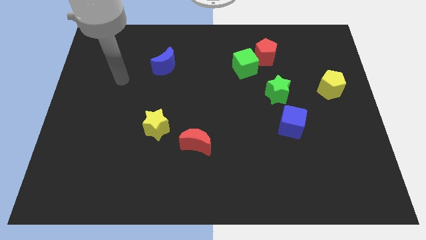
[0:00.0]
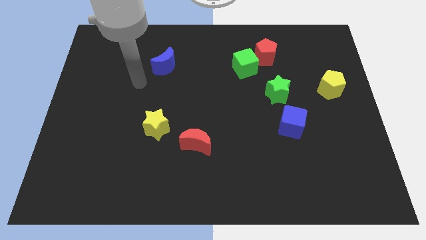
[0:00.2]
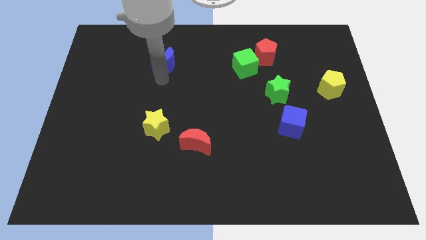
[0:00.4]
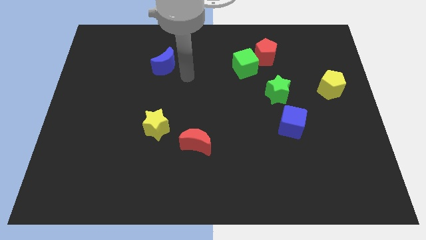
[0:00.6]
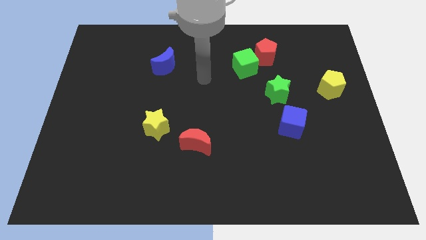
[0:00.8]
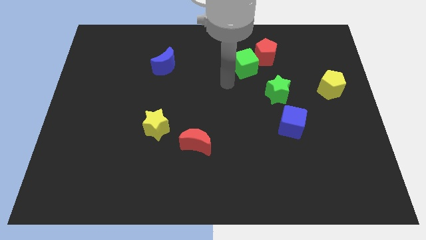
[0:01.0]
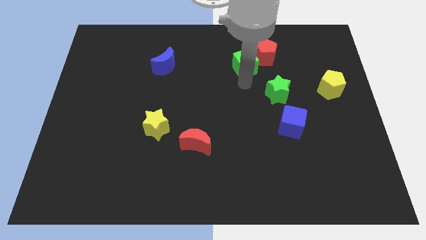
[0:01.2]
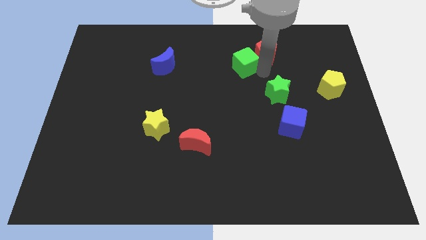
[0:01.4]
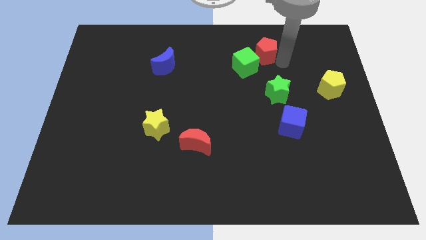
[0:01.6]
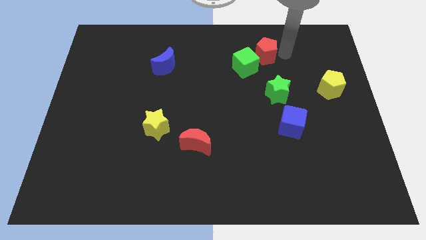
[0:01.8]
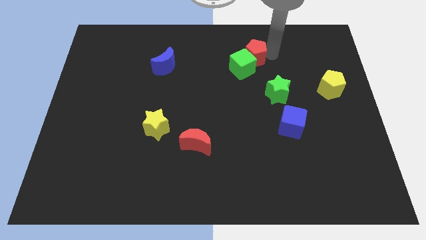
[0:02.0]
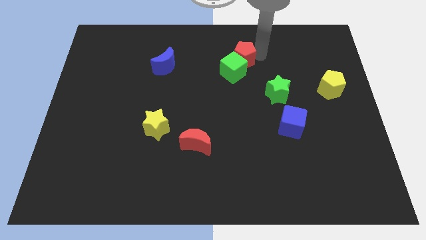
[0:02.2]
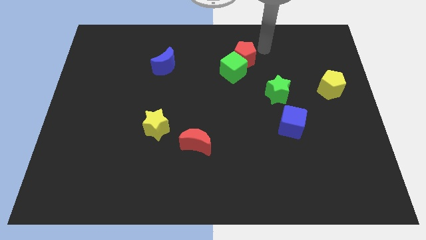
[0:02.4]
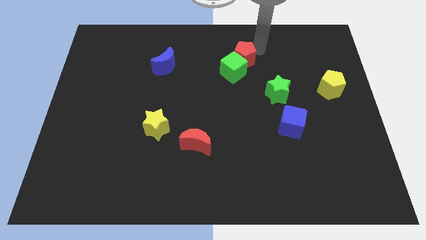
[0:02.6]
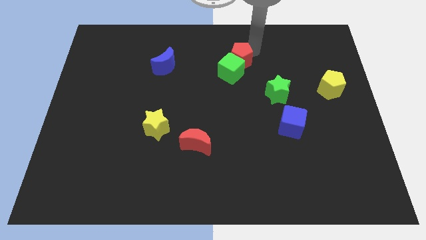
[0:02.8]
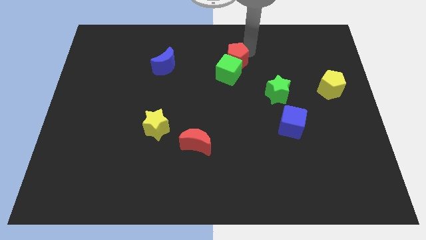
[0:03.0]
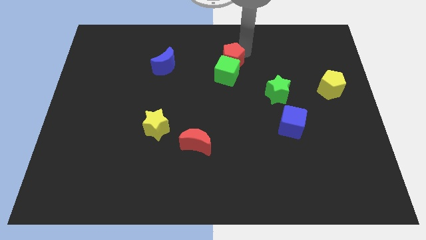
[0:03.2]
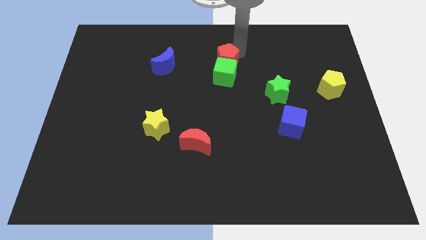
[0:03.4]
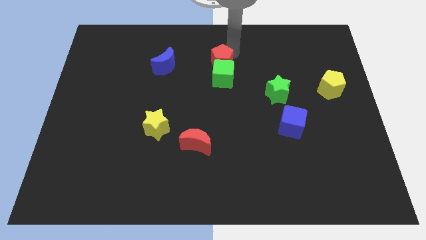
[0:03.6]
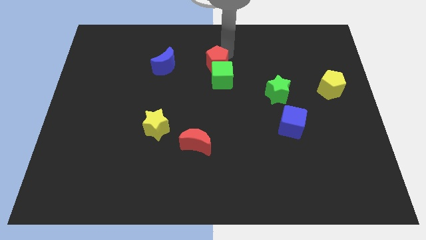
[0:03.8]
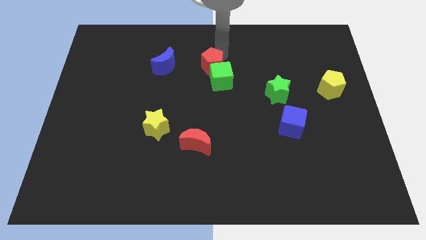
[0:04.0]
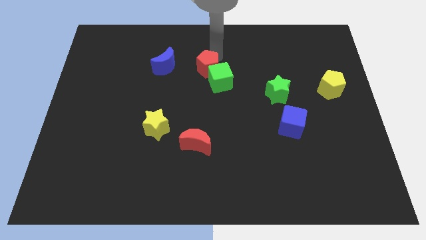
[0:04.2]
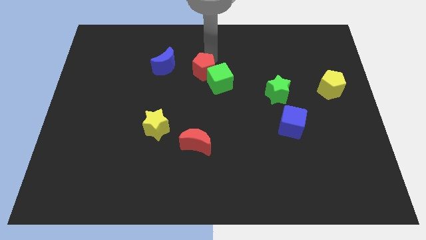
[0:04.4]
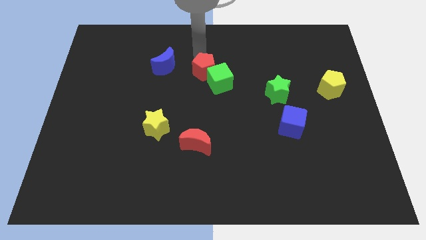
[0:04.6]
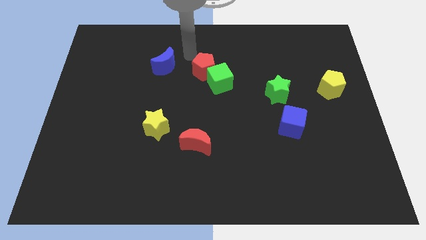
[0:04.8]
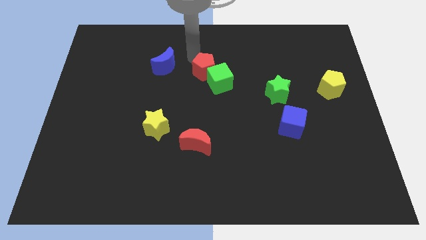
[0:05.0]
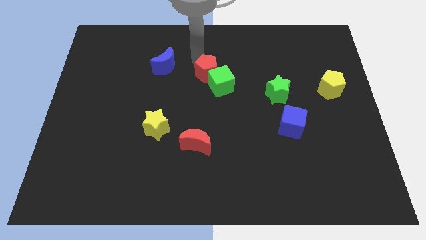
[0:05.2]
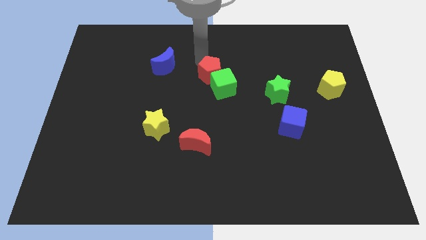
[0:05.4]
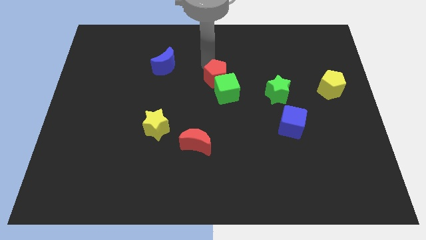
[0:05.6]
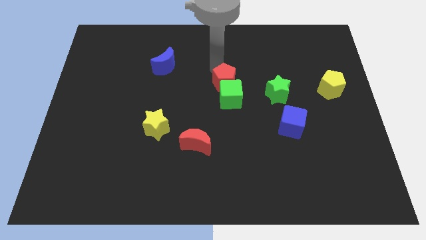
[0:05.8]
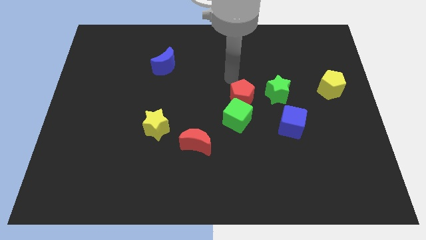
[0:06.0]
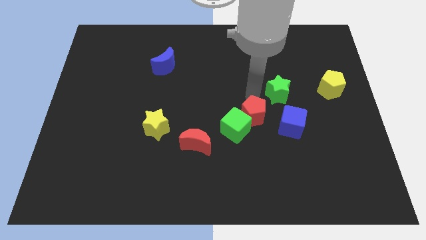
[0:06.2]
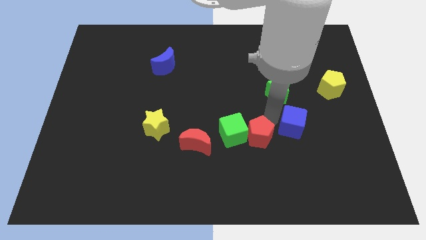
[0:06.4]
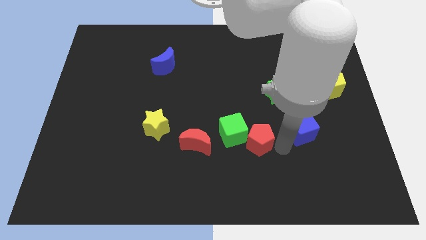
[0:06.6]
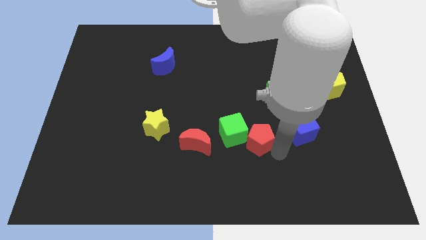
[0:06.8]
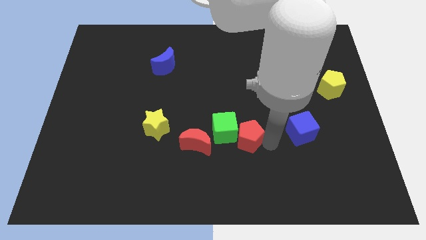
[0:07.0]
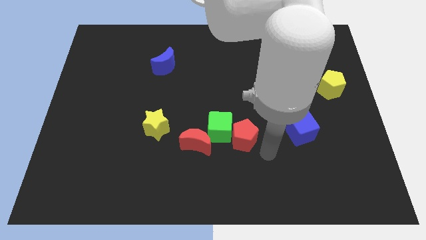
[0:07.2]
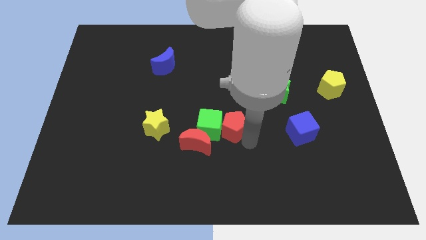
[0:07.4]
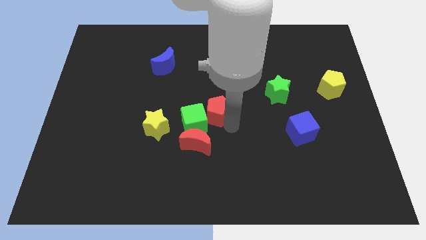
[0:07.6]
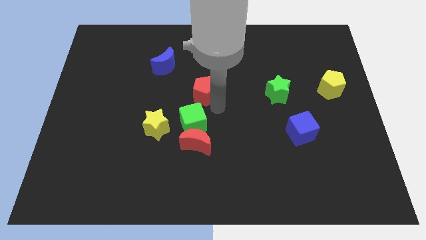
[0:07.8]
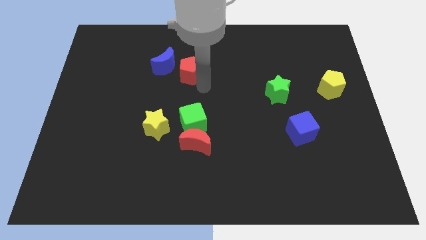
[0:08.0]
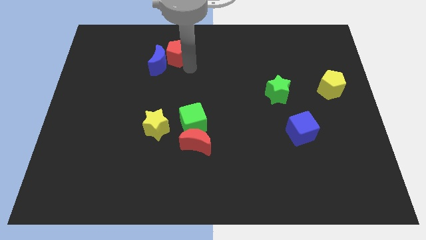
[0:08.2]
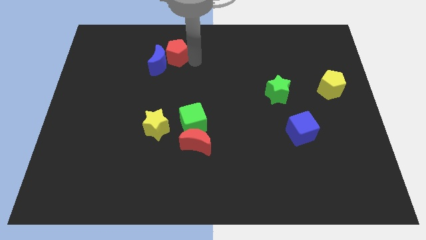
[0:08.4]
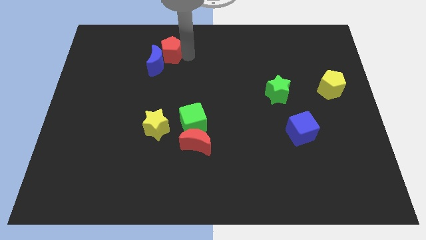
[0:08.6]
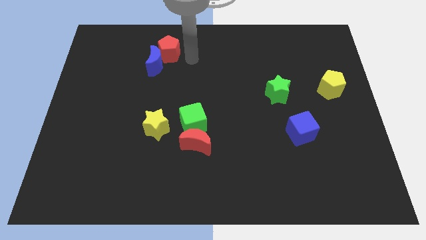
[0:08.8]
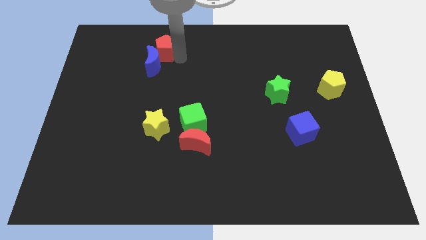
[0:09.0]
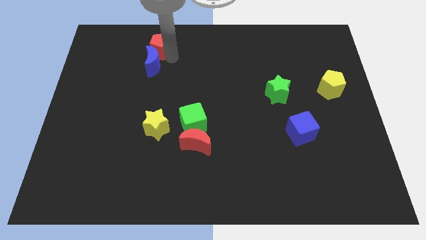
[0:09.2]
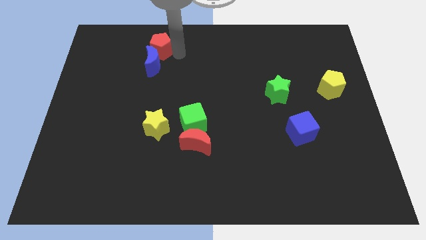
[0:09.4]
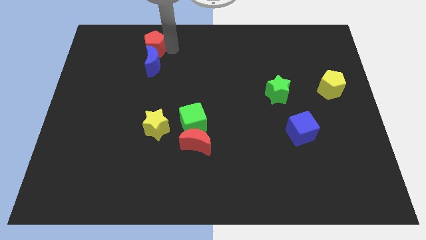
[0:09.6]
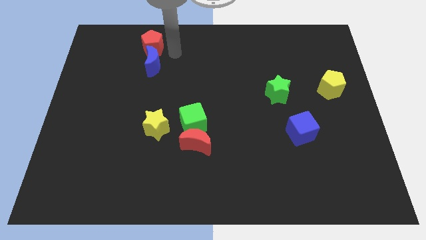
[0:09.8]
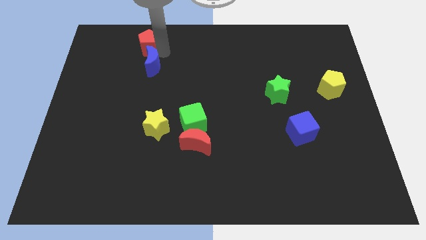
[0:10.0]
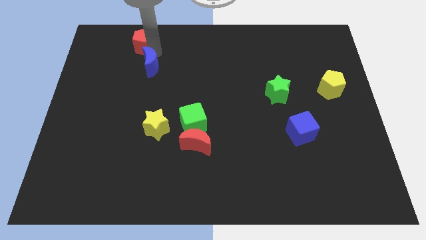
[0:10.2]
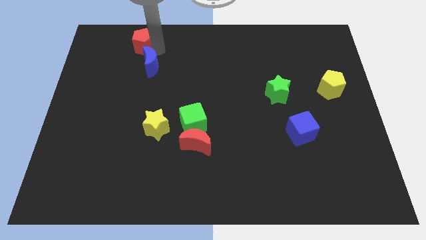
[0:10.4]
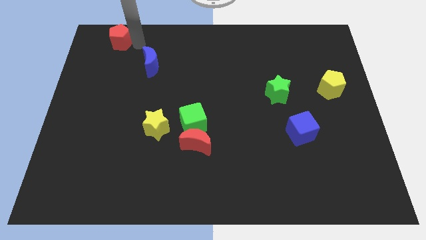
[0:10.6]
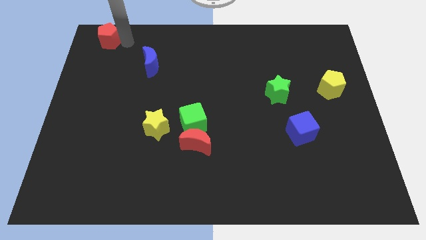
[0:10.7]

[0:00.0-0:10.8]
slide the red pentagon to the top left

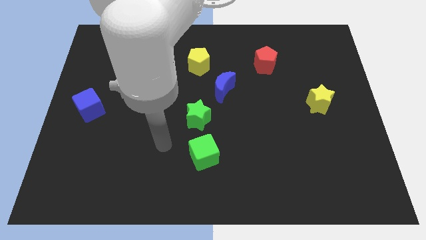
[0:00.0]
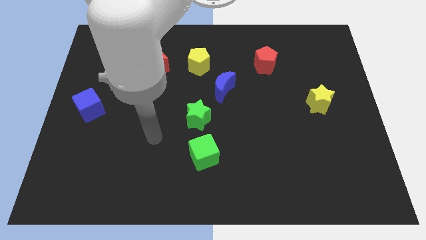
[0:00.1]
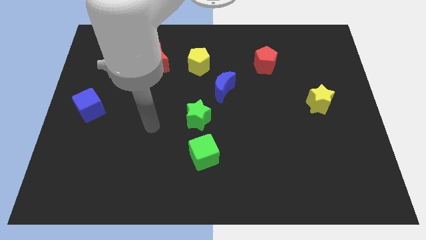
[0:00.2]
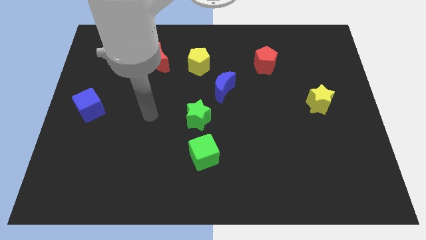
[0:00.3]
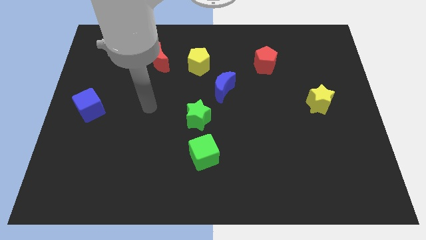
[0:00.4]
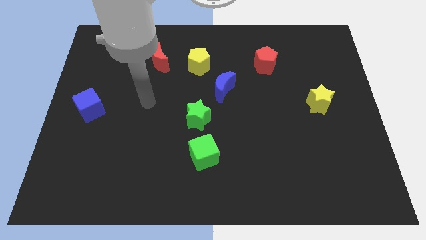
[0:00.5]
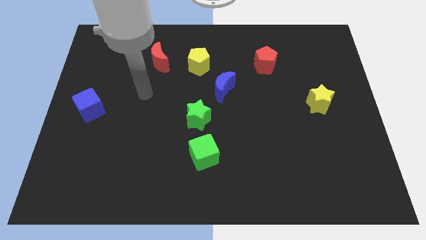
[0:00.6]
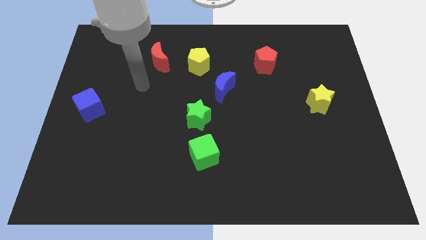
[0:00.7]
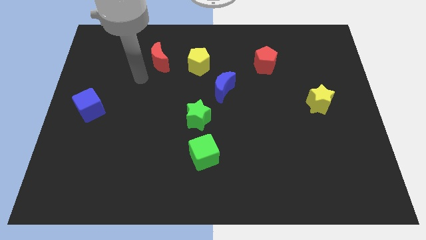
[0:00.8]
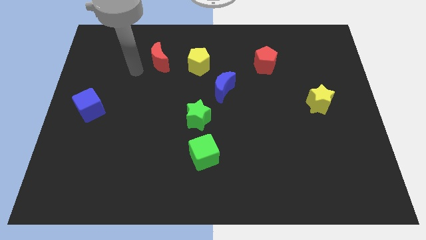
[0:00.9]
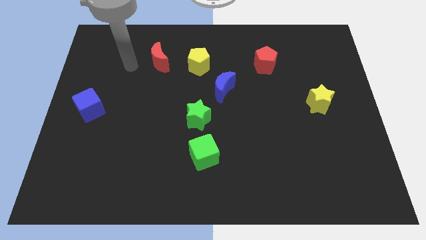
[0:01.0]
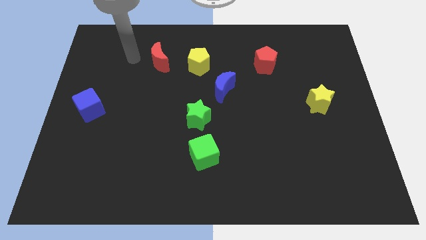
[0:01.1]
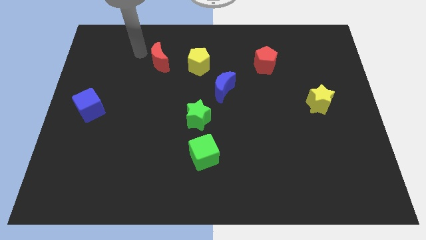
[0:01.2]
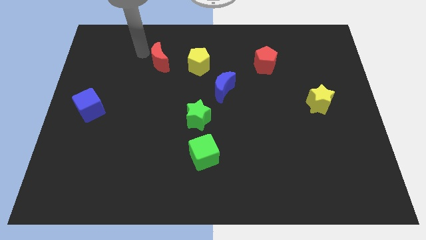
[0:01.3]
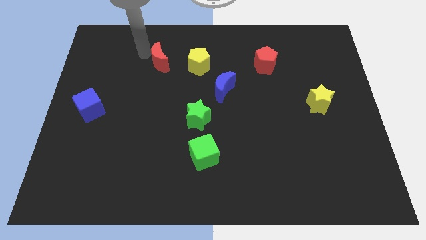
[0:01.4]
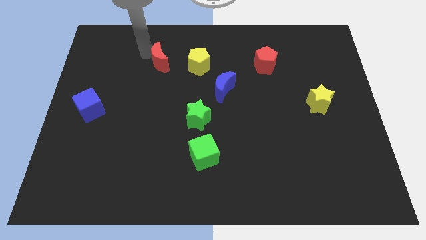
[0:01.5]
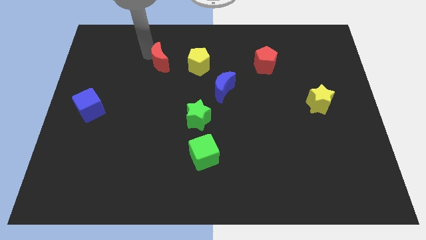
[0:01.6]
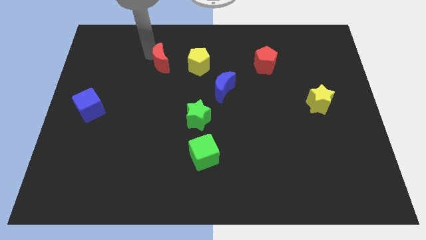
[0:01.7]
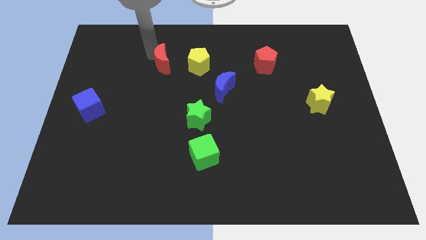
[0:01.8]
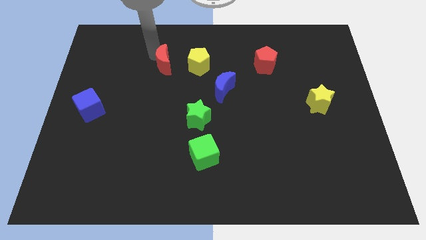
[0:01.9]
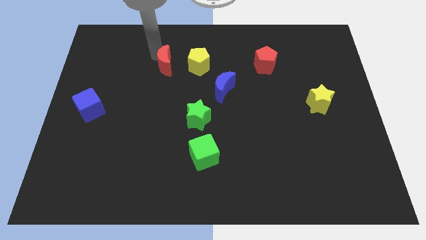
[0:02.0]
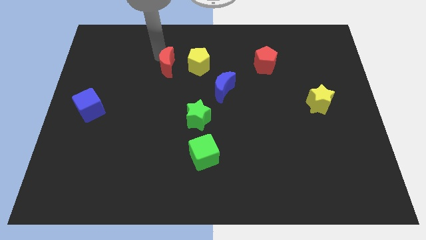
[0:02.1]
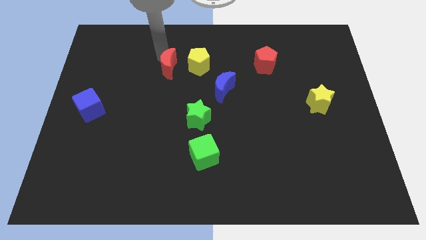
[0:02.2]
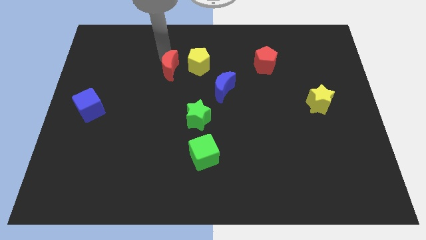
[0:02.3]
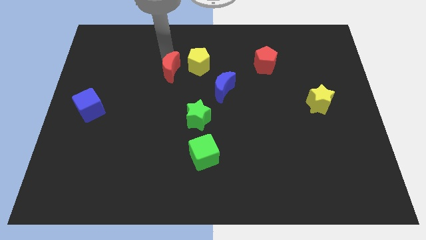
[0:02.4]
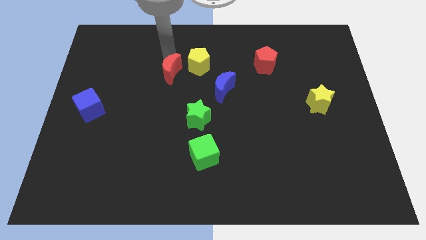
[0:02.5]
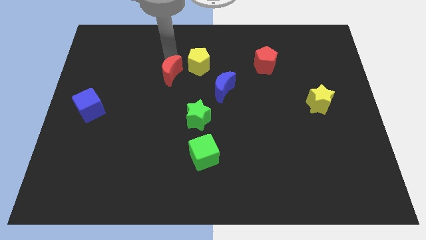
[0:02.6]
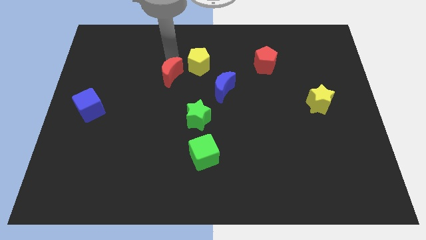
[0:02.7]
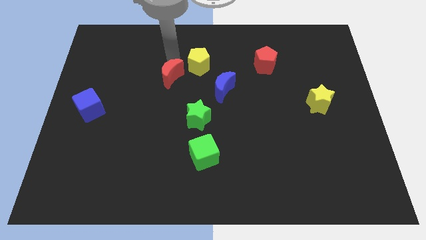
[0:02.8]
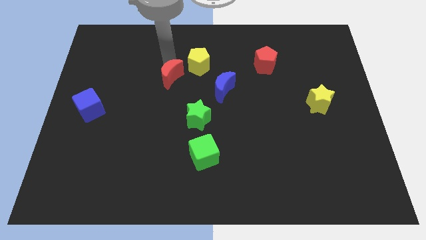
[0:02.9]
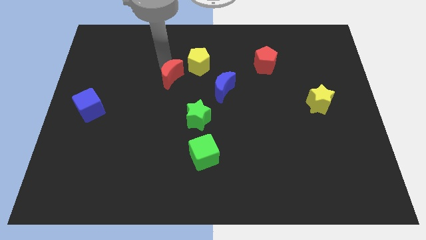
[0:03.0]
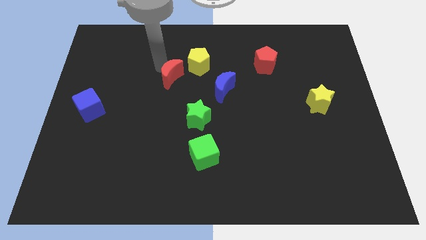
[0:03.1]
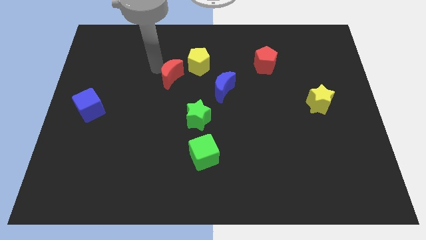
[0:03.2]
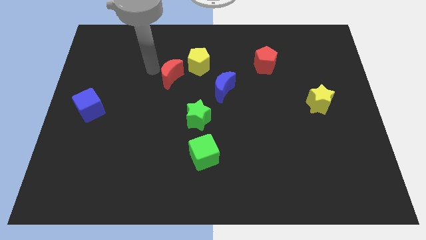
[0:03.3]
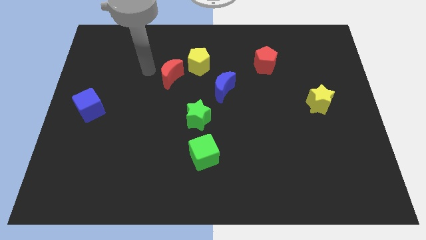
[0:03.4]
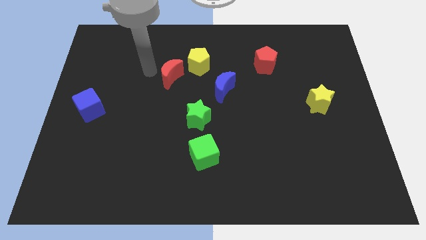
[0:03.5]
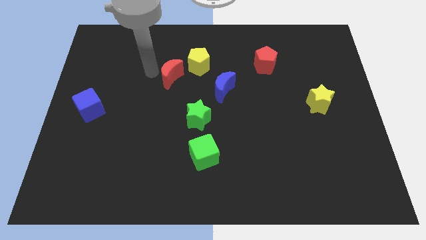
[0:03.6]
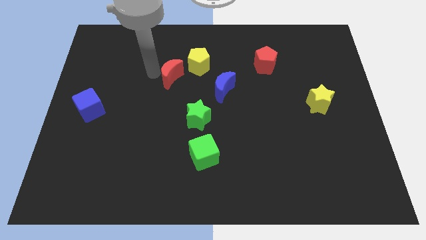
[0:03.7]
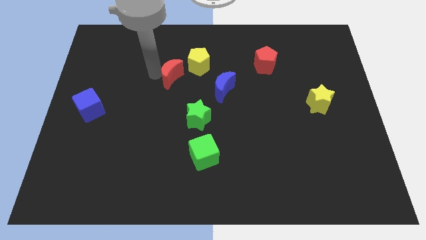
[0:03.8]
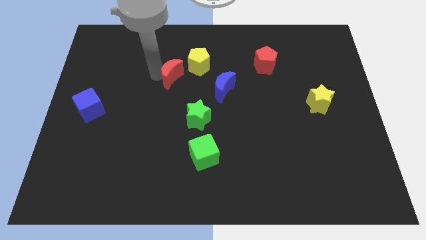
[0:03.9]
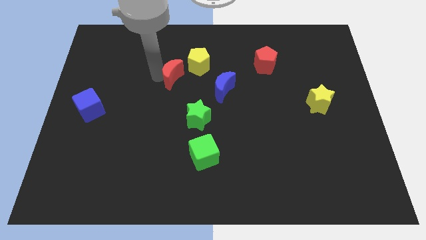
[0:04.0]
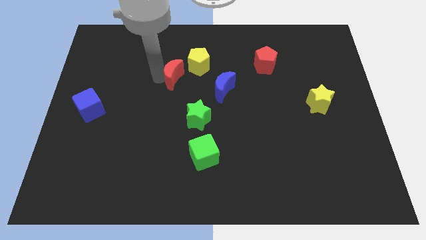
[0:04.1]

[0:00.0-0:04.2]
push the red moon to the middle of the board
